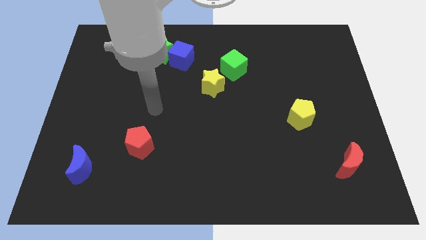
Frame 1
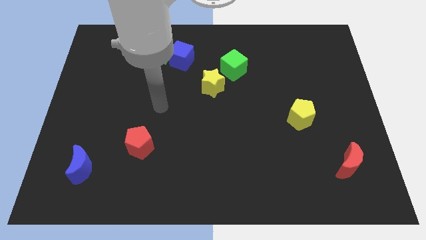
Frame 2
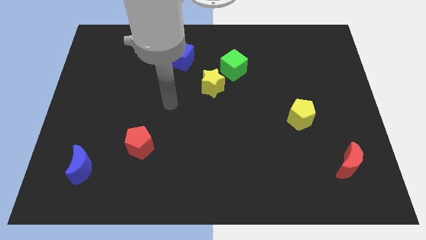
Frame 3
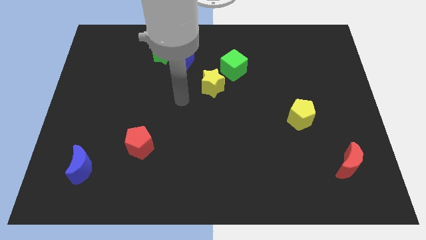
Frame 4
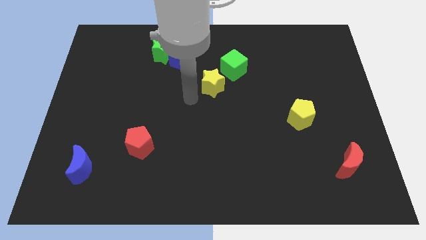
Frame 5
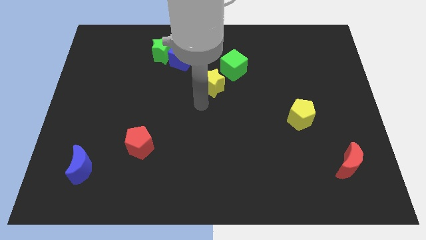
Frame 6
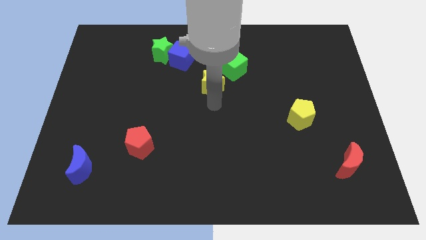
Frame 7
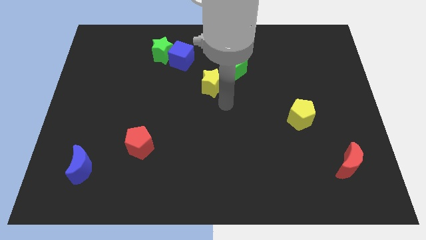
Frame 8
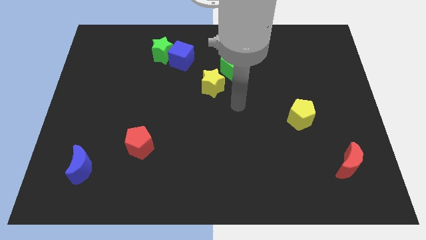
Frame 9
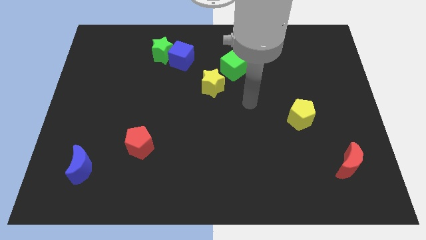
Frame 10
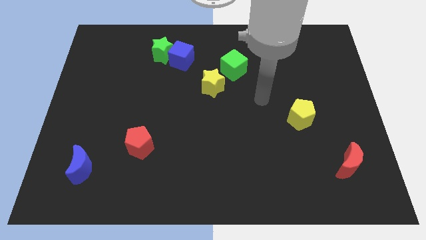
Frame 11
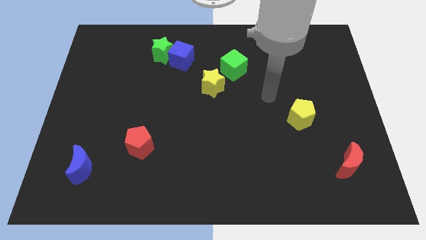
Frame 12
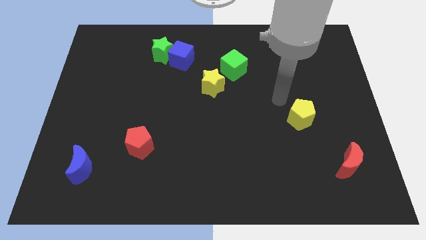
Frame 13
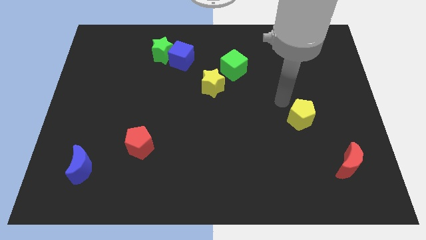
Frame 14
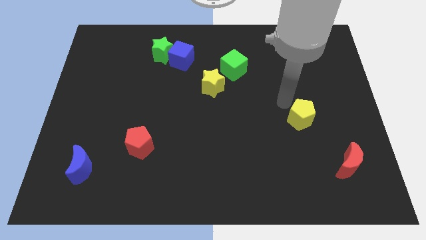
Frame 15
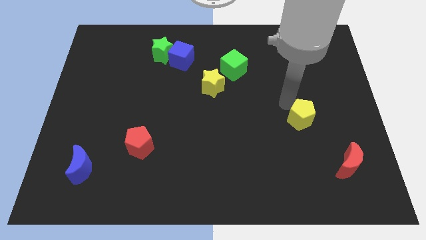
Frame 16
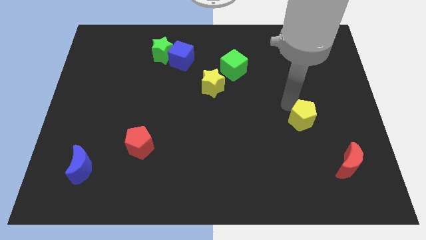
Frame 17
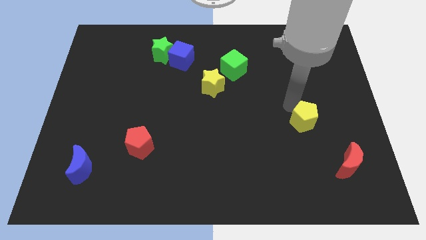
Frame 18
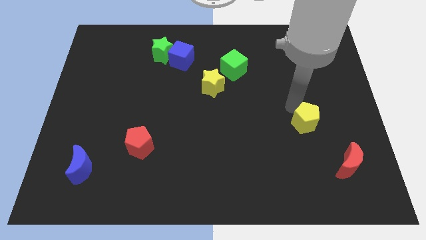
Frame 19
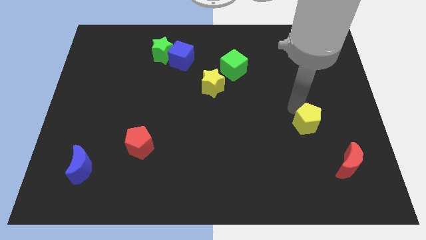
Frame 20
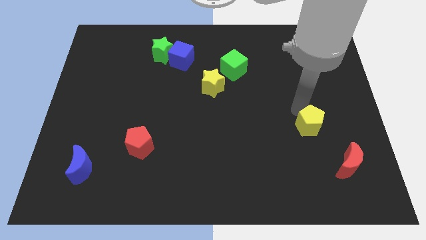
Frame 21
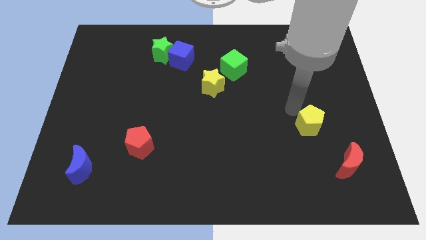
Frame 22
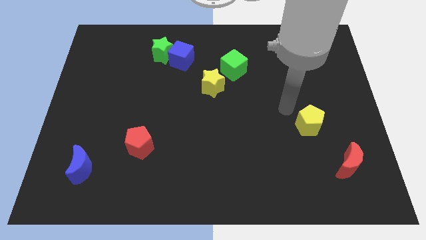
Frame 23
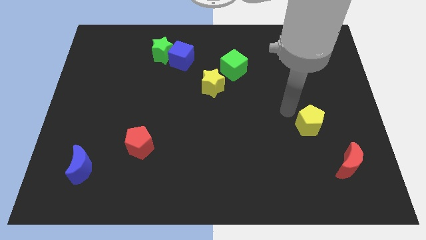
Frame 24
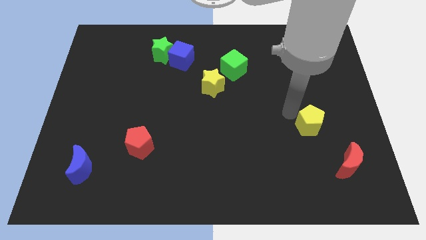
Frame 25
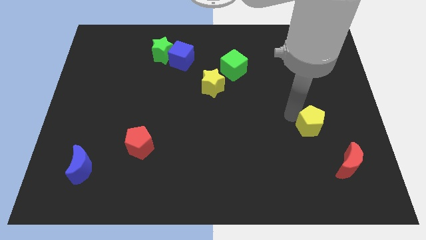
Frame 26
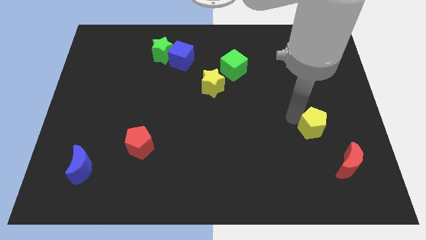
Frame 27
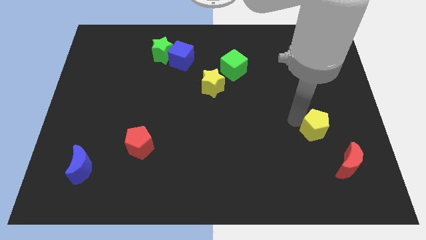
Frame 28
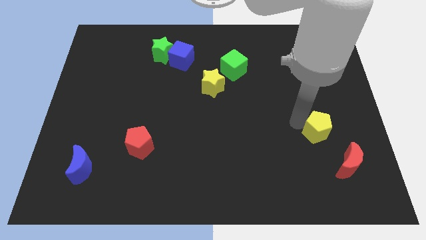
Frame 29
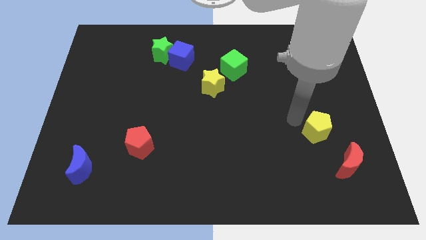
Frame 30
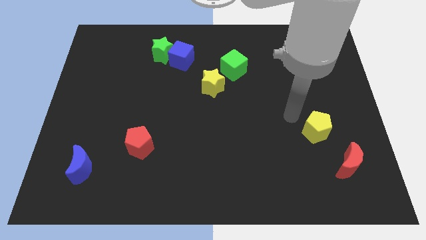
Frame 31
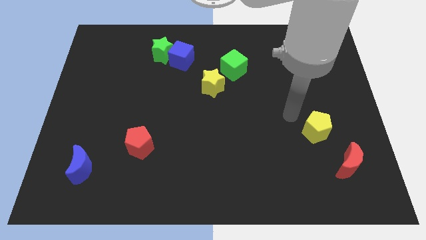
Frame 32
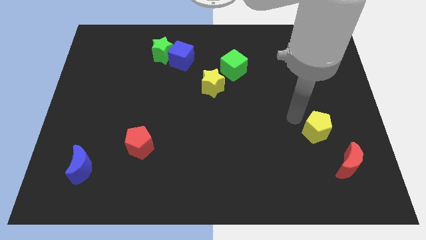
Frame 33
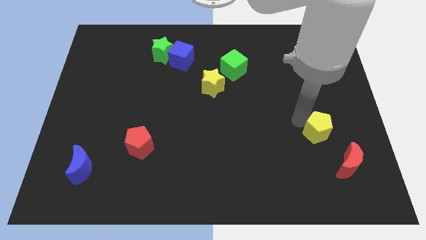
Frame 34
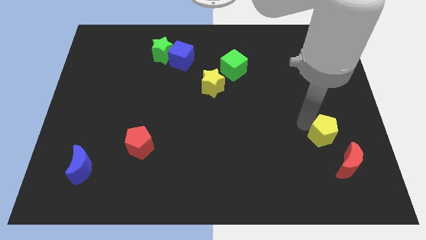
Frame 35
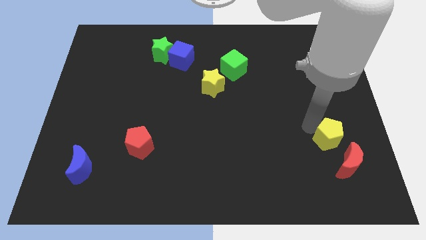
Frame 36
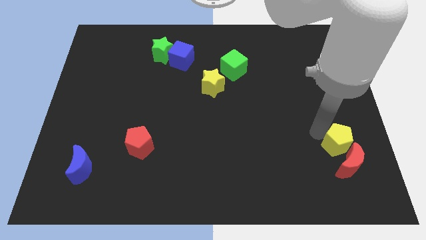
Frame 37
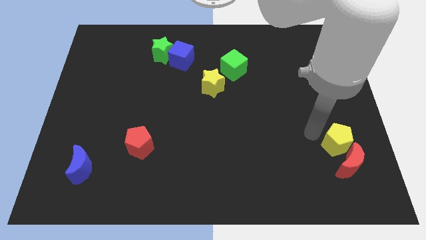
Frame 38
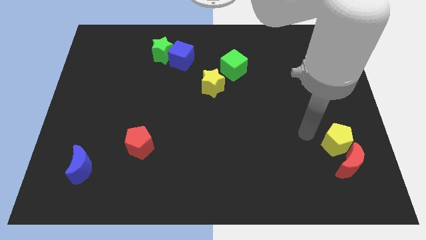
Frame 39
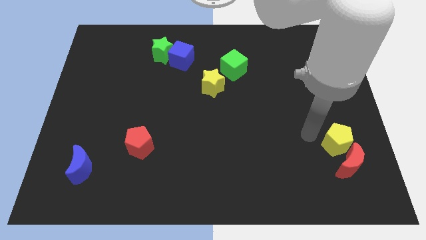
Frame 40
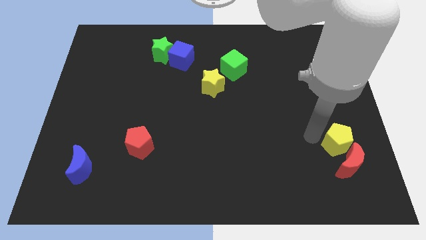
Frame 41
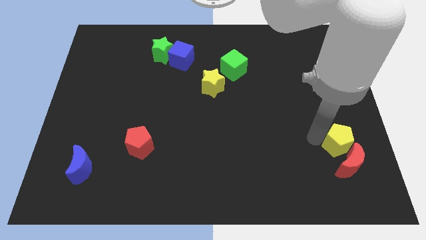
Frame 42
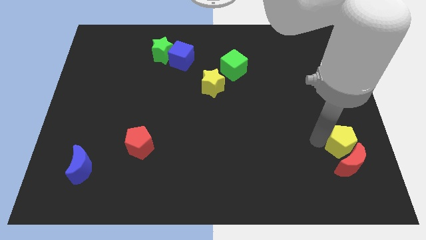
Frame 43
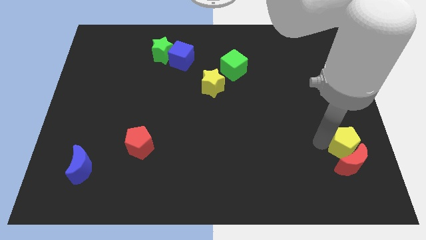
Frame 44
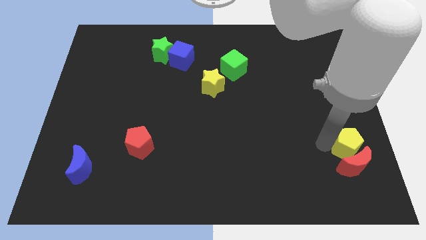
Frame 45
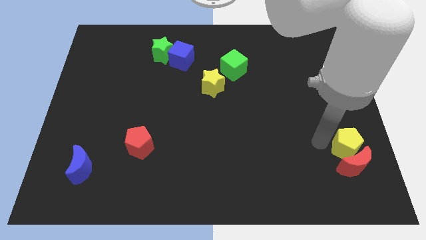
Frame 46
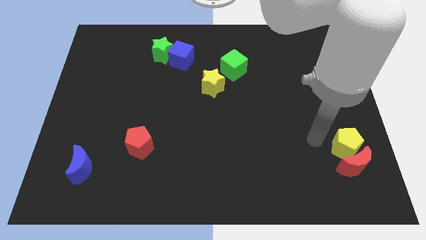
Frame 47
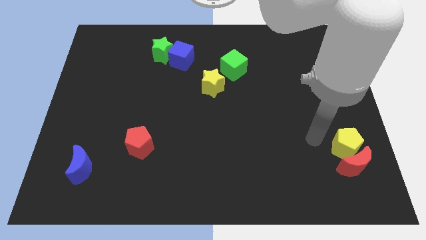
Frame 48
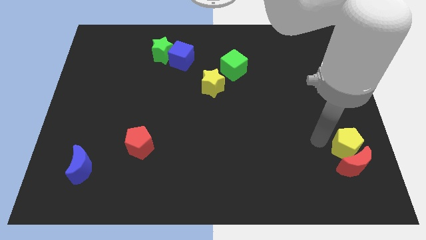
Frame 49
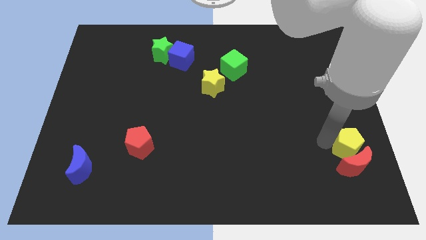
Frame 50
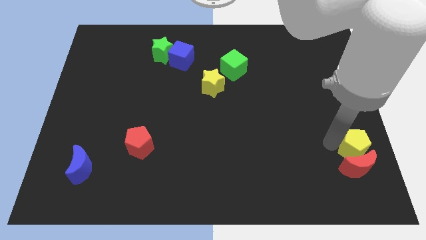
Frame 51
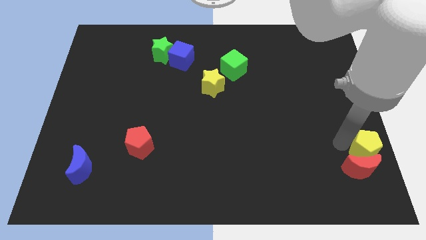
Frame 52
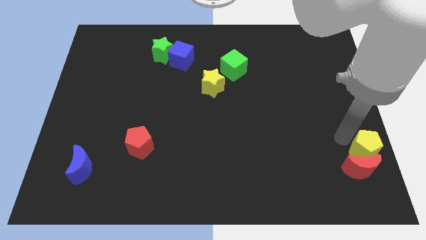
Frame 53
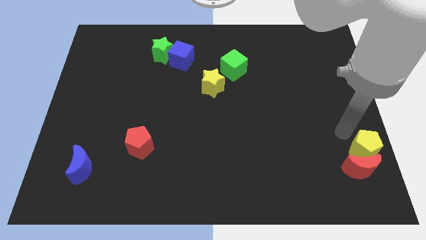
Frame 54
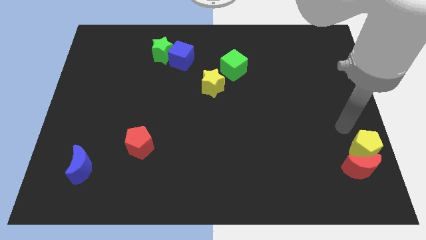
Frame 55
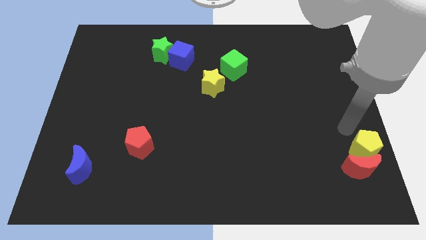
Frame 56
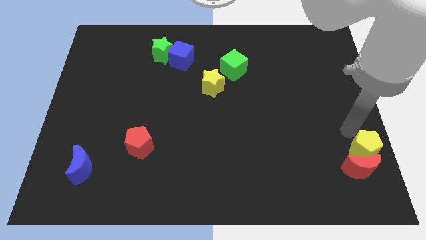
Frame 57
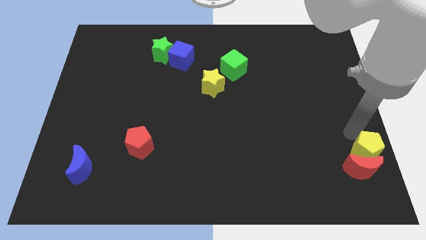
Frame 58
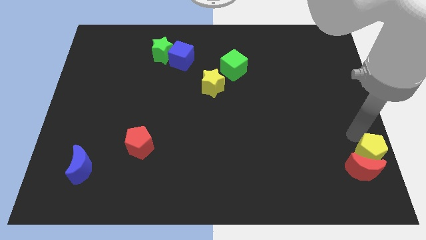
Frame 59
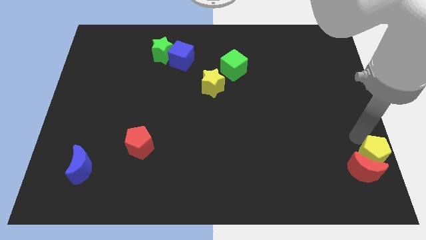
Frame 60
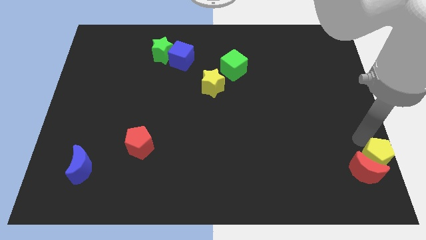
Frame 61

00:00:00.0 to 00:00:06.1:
slide the yellow pentagon to the lower right corner
